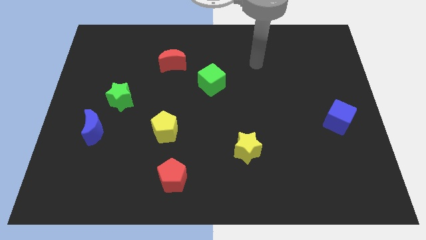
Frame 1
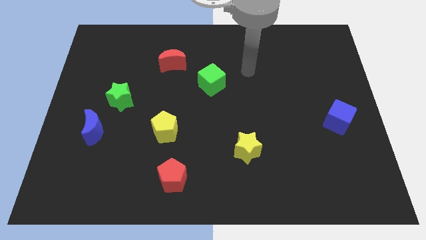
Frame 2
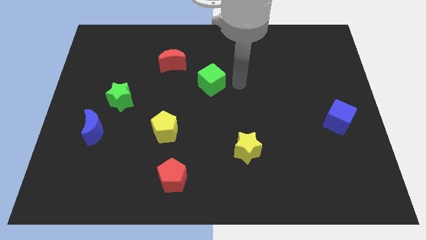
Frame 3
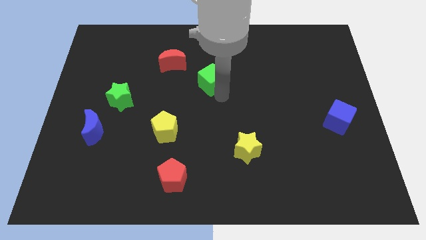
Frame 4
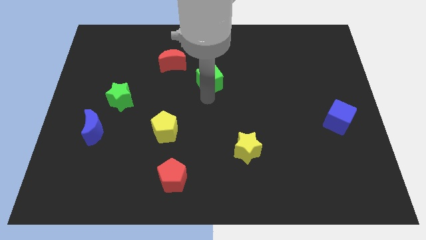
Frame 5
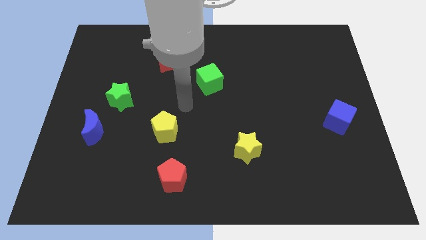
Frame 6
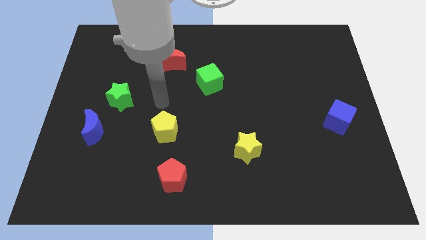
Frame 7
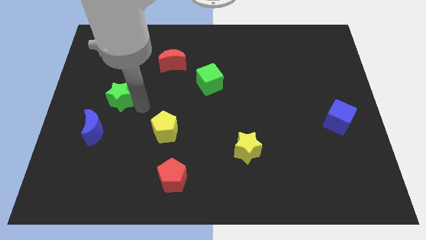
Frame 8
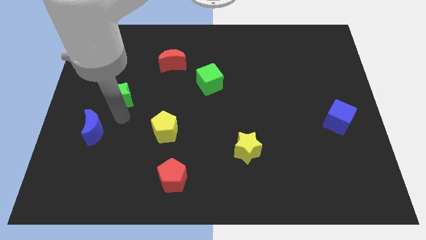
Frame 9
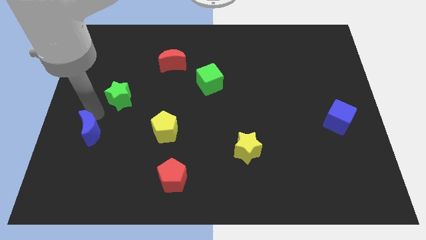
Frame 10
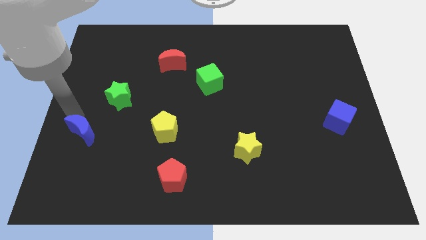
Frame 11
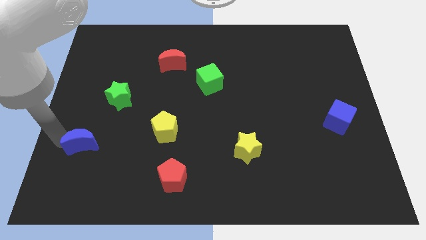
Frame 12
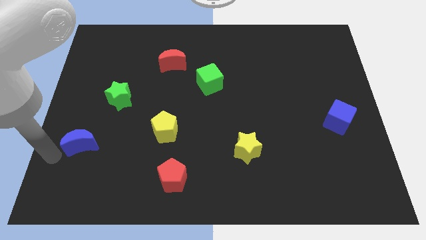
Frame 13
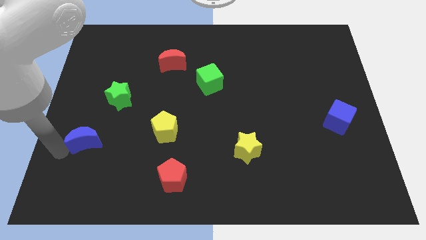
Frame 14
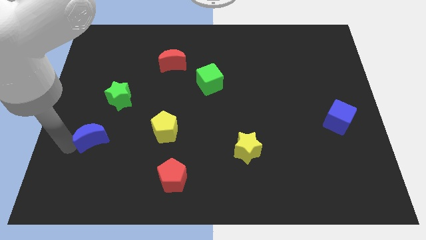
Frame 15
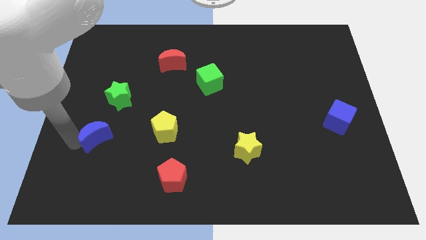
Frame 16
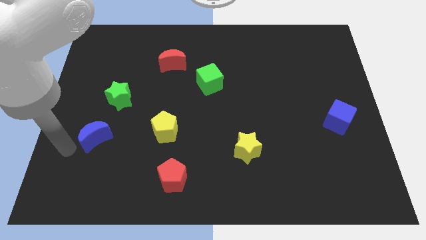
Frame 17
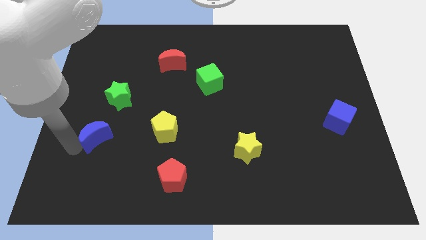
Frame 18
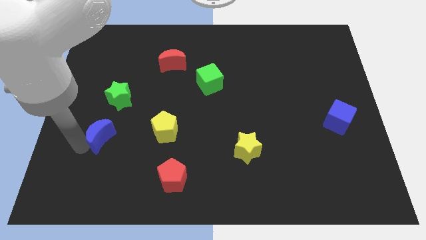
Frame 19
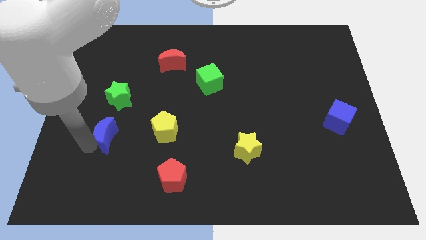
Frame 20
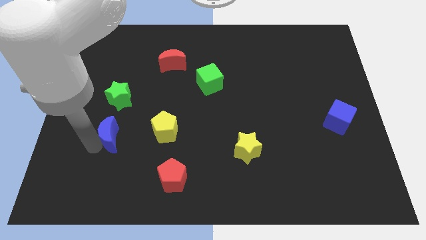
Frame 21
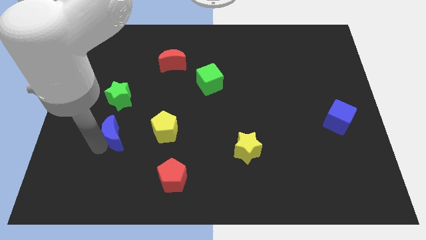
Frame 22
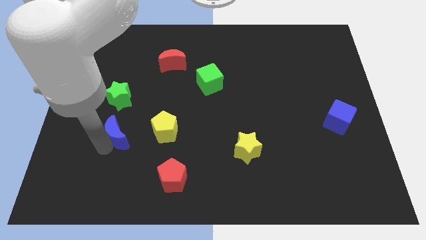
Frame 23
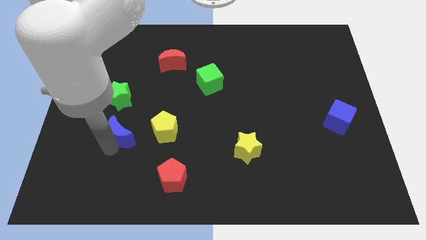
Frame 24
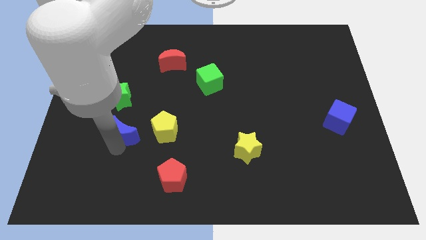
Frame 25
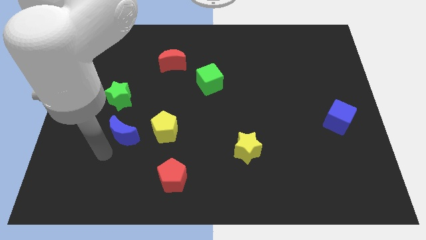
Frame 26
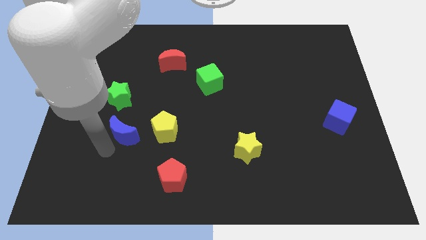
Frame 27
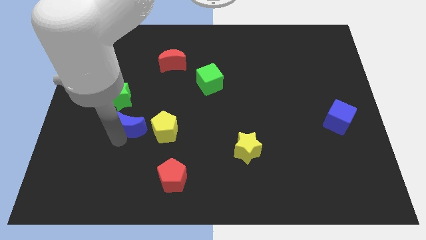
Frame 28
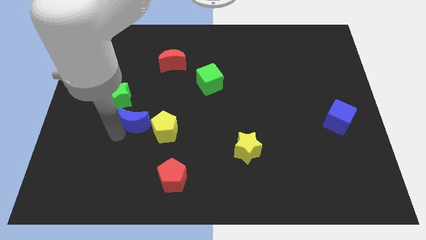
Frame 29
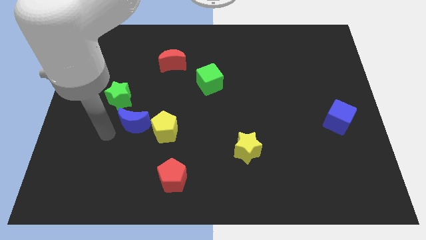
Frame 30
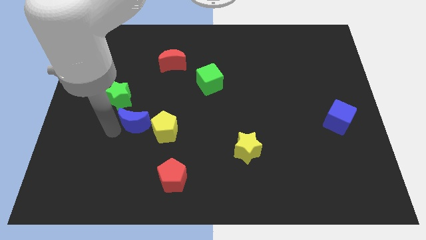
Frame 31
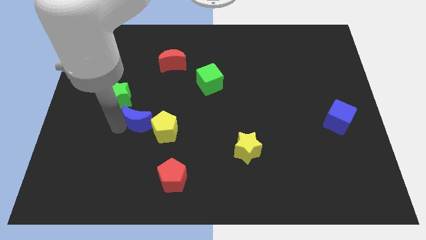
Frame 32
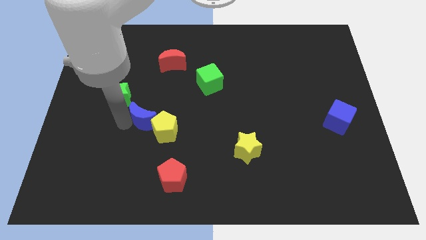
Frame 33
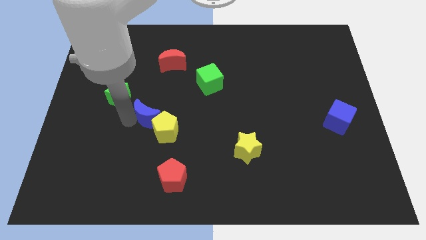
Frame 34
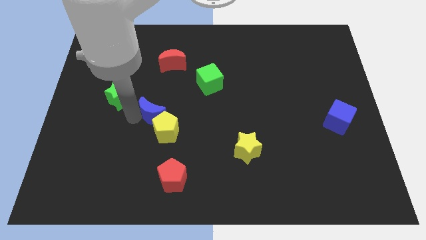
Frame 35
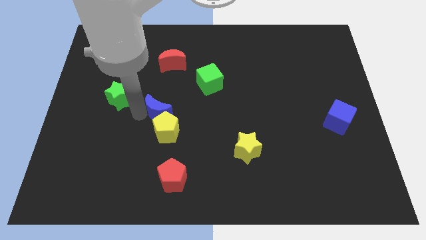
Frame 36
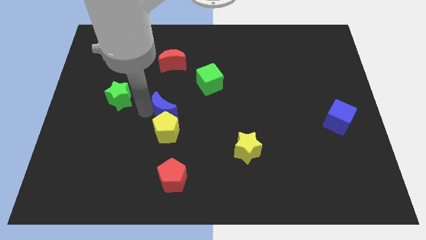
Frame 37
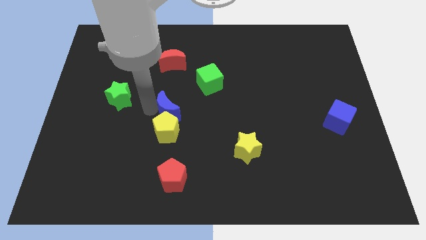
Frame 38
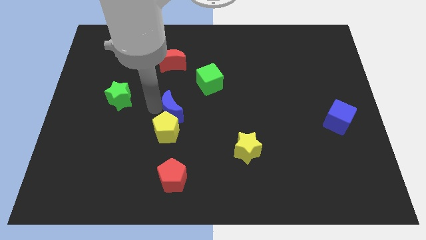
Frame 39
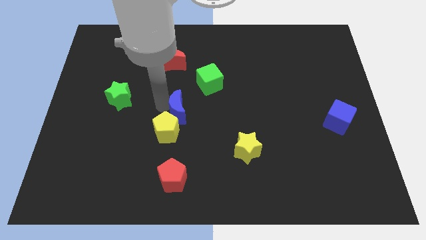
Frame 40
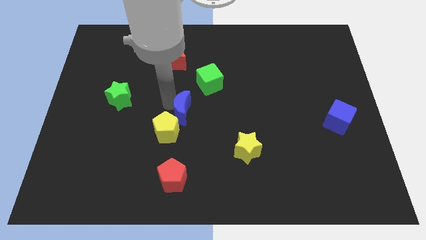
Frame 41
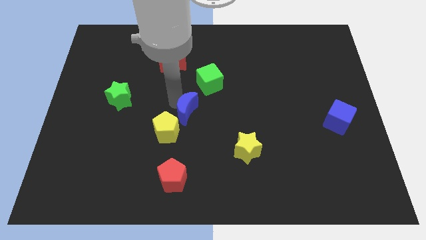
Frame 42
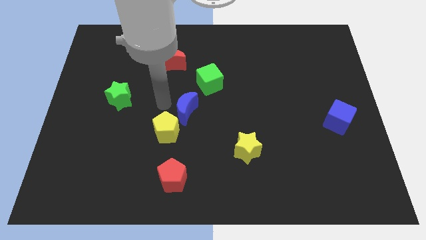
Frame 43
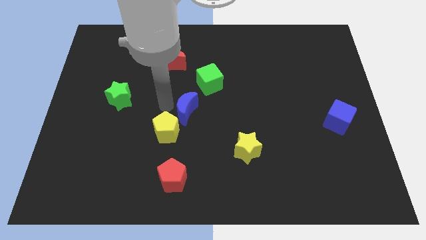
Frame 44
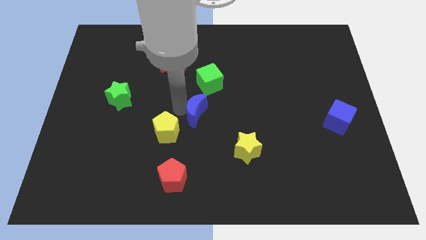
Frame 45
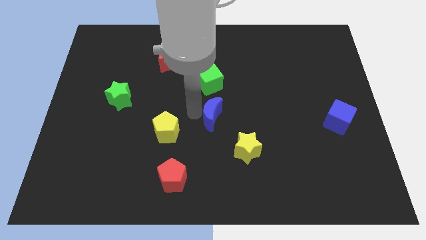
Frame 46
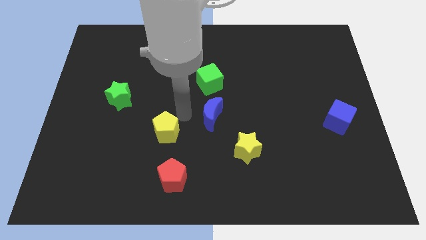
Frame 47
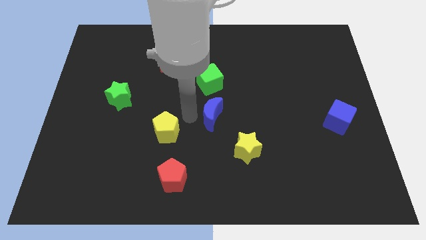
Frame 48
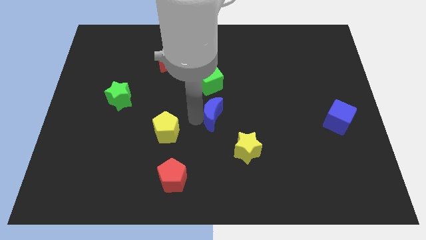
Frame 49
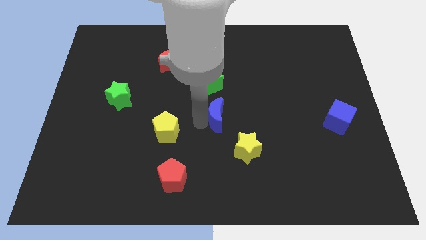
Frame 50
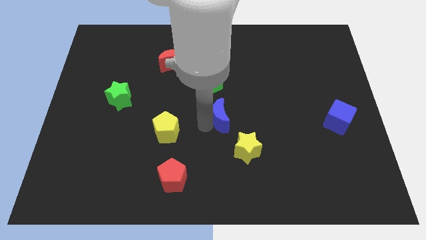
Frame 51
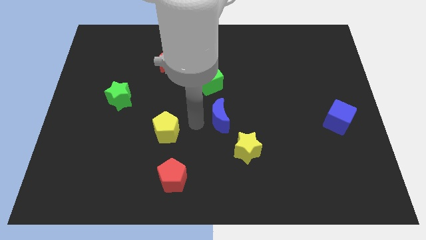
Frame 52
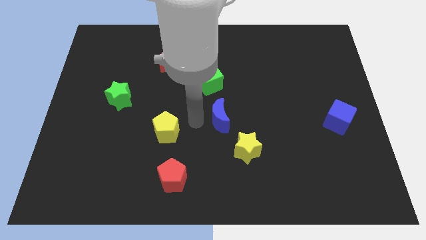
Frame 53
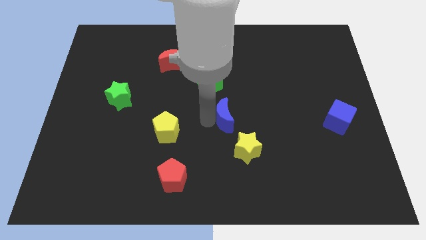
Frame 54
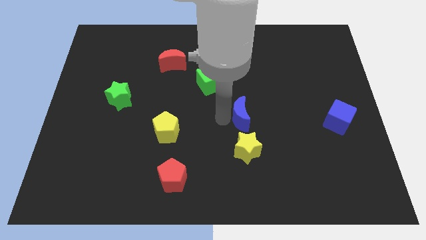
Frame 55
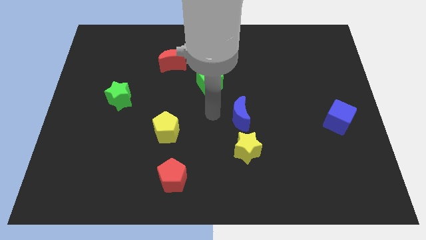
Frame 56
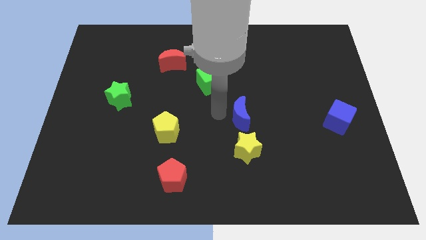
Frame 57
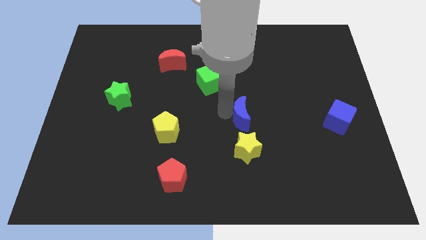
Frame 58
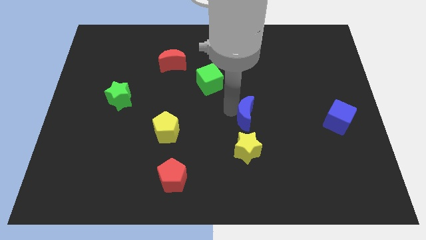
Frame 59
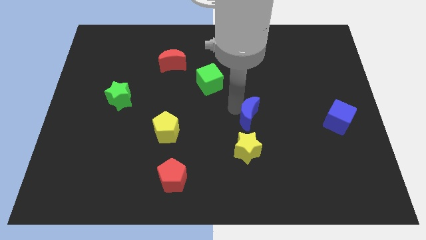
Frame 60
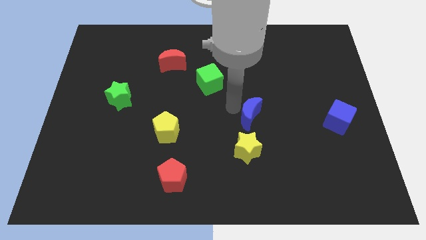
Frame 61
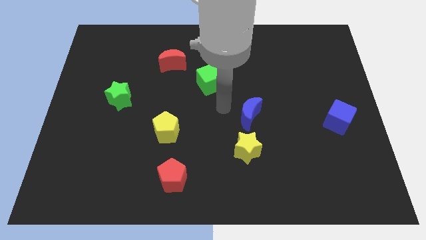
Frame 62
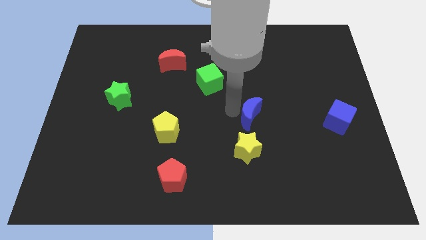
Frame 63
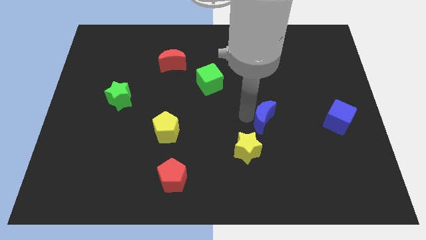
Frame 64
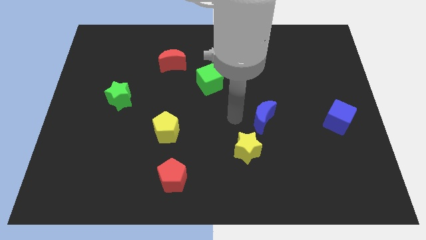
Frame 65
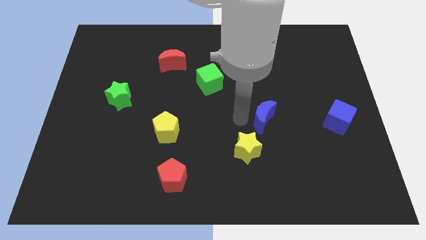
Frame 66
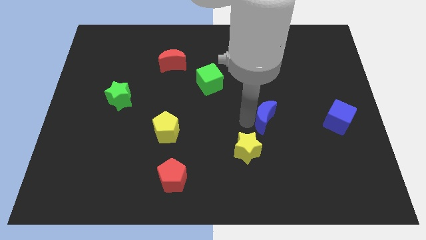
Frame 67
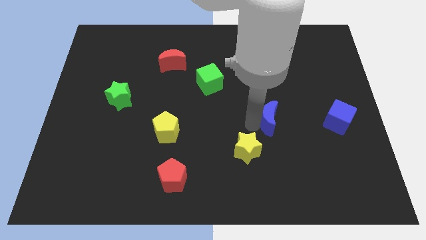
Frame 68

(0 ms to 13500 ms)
put the blue moon to the left side of the blue cube
